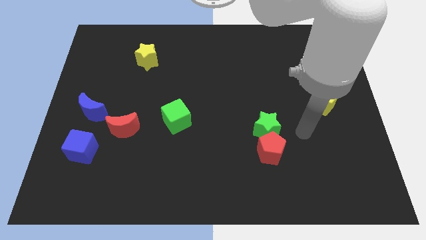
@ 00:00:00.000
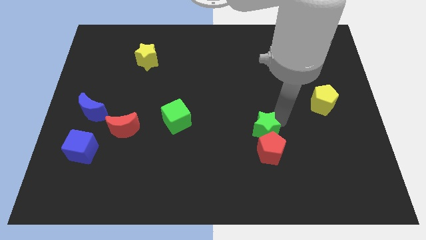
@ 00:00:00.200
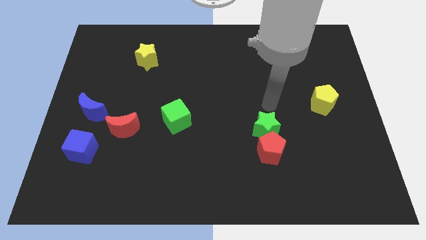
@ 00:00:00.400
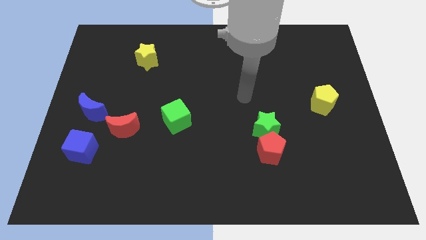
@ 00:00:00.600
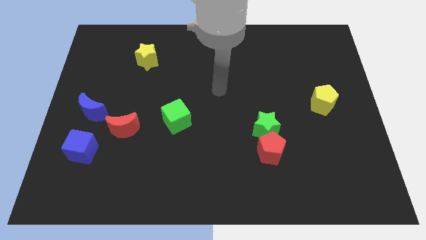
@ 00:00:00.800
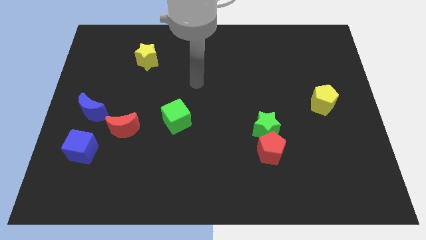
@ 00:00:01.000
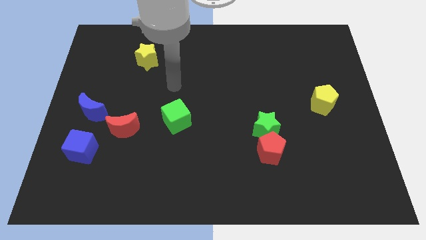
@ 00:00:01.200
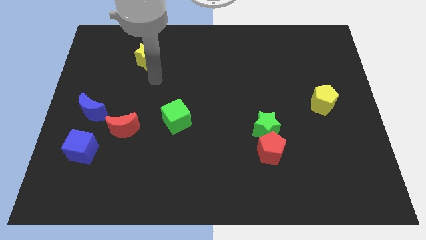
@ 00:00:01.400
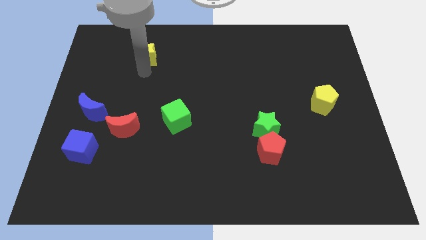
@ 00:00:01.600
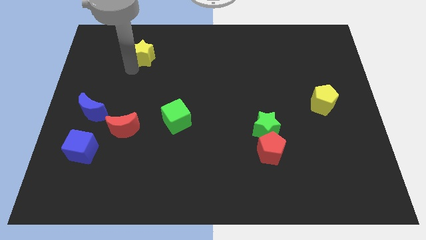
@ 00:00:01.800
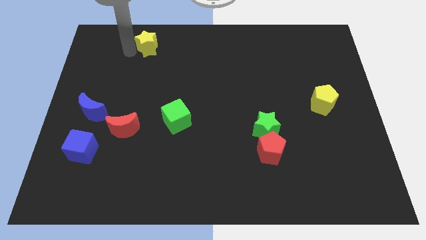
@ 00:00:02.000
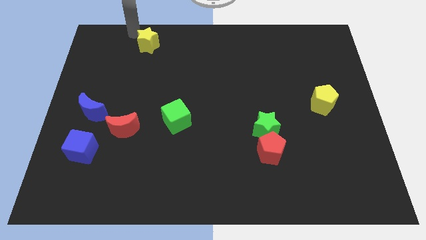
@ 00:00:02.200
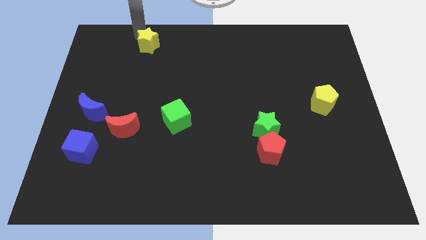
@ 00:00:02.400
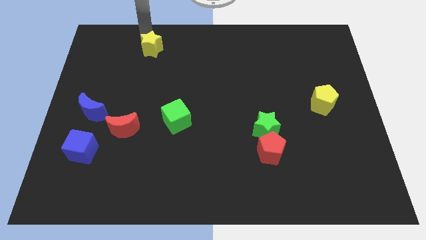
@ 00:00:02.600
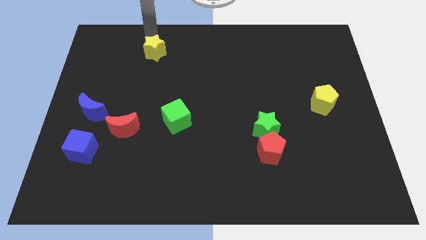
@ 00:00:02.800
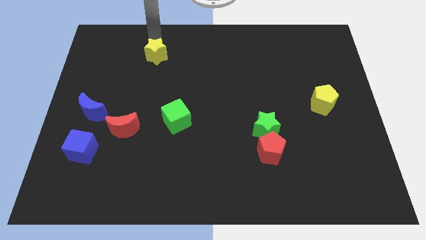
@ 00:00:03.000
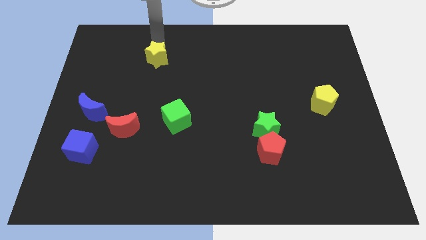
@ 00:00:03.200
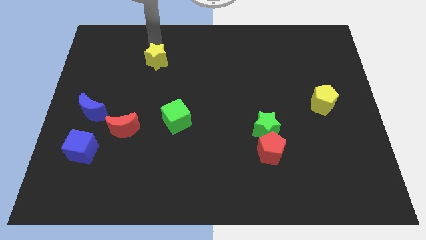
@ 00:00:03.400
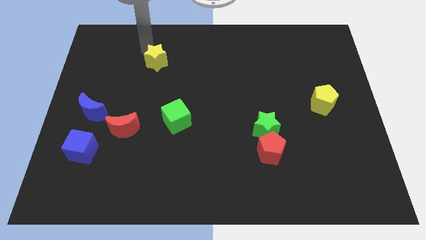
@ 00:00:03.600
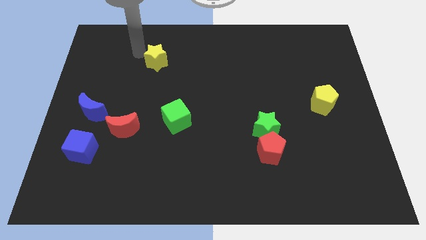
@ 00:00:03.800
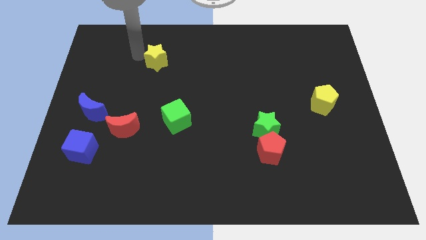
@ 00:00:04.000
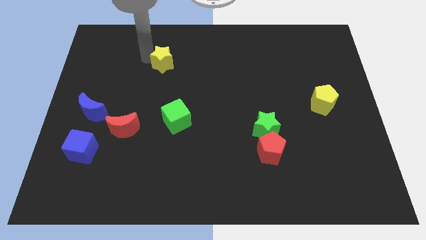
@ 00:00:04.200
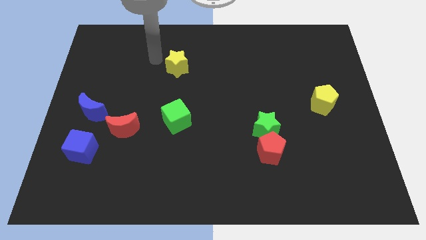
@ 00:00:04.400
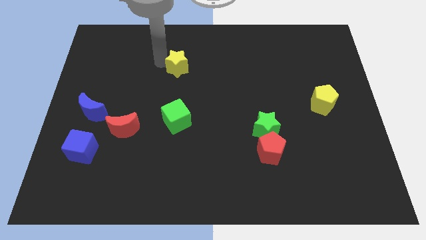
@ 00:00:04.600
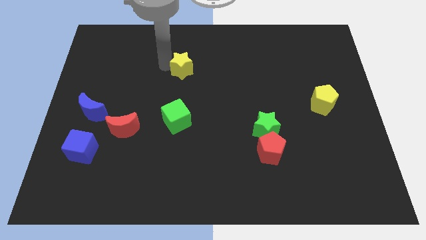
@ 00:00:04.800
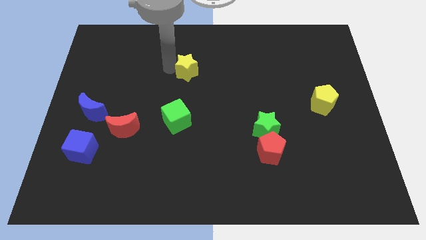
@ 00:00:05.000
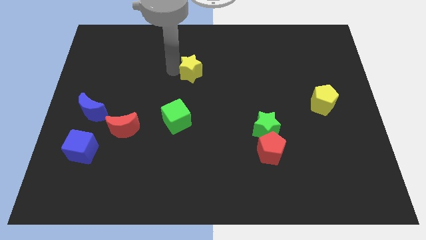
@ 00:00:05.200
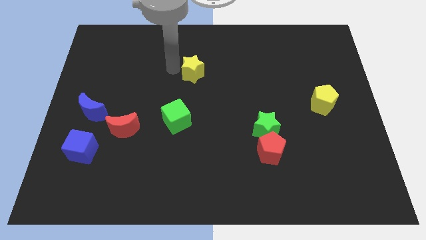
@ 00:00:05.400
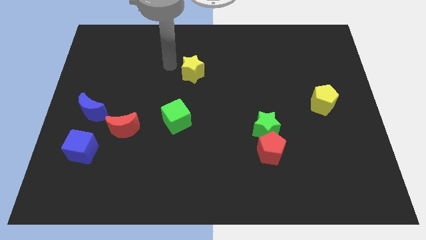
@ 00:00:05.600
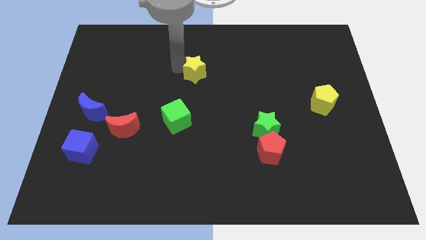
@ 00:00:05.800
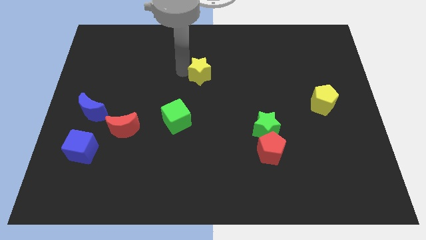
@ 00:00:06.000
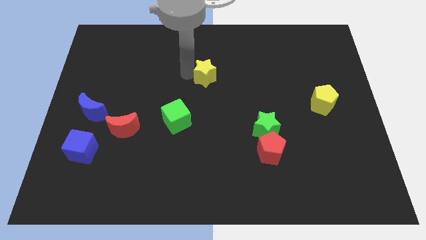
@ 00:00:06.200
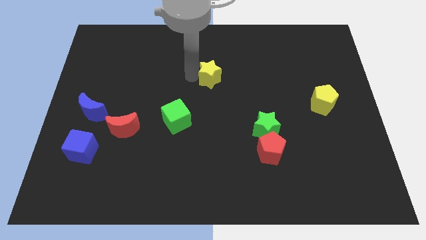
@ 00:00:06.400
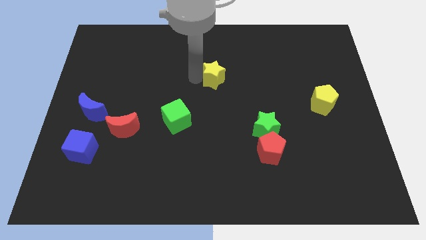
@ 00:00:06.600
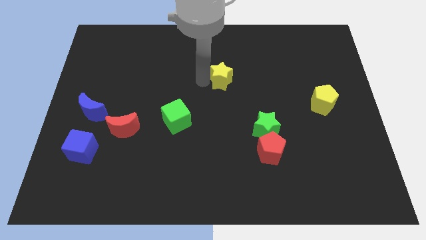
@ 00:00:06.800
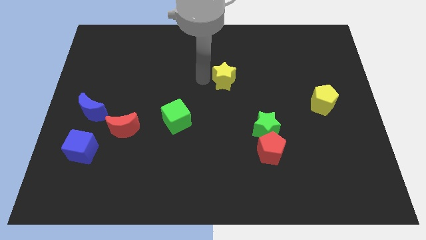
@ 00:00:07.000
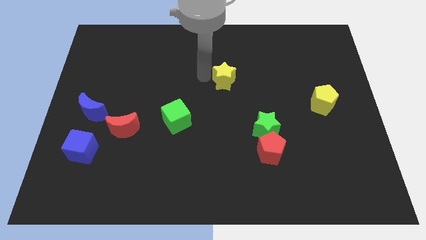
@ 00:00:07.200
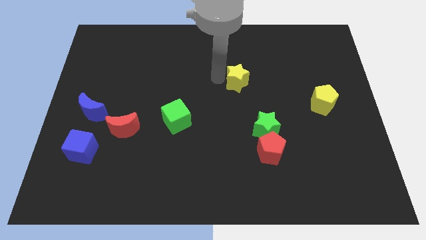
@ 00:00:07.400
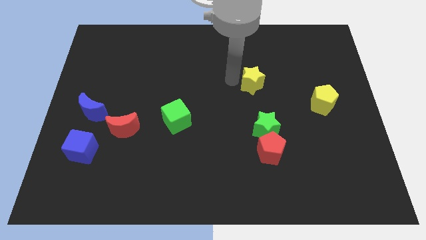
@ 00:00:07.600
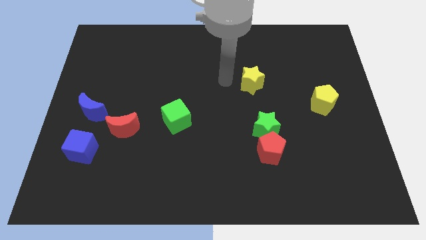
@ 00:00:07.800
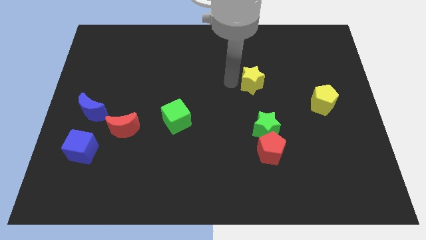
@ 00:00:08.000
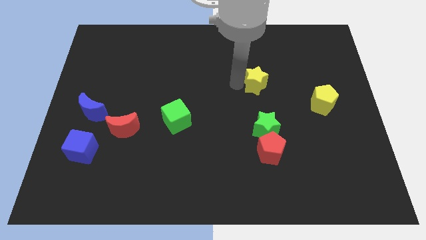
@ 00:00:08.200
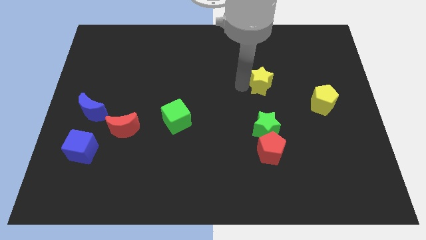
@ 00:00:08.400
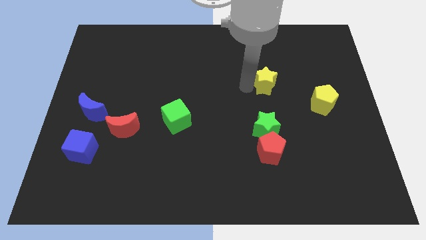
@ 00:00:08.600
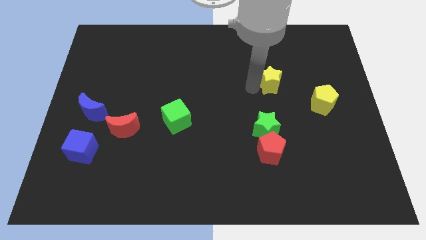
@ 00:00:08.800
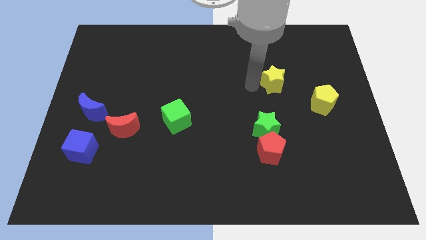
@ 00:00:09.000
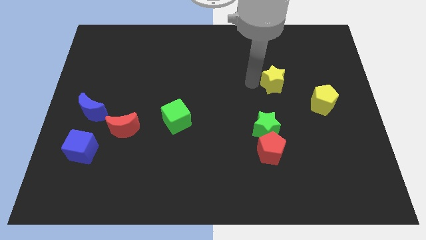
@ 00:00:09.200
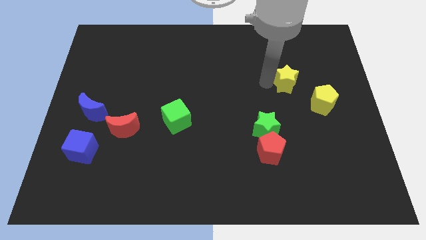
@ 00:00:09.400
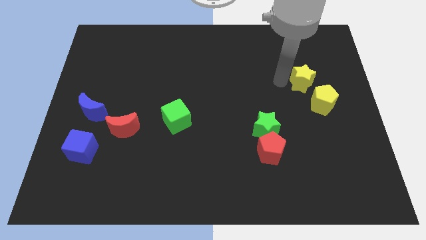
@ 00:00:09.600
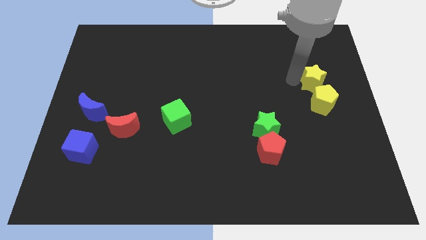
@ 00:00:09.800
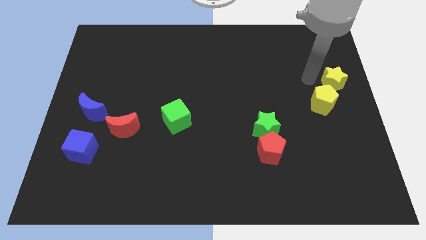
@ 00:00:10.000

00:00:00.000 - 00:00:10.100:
push the yellow star to the right side

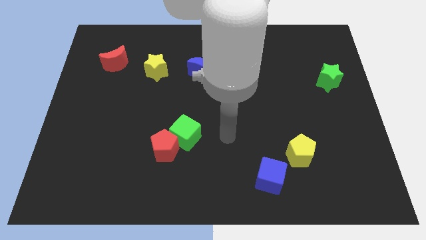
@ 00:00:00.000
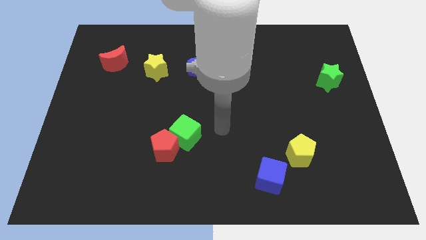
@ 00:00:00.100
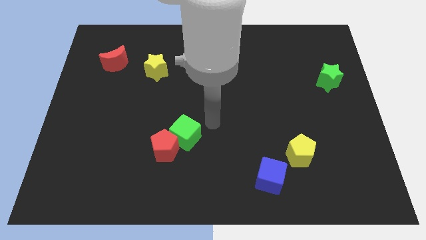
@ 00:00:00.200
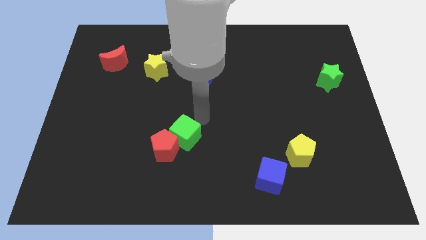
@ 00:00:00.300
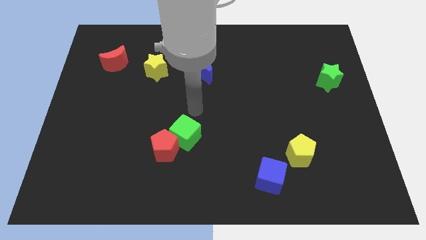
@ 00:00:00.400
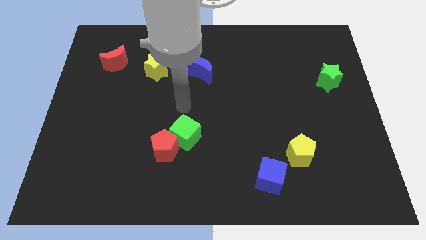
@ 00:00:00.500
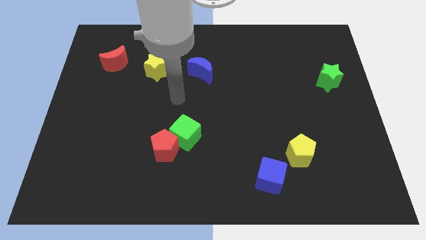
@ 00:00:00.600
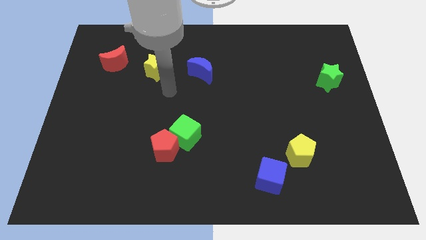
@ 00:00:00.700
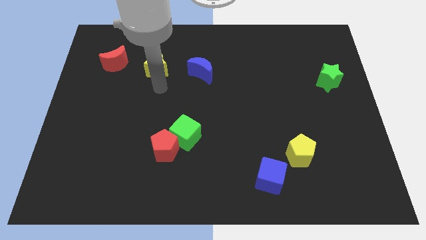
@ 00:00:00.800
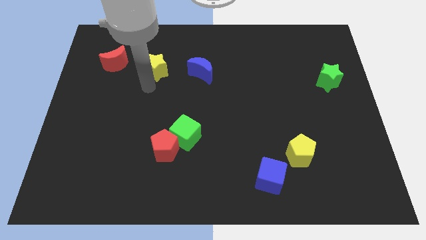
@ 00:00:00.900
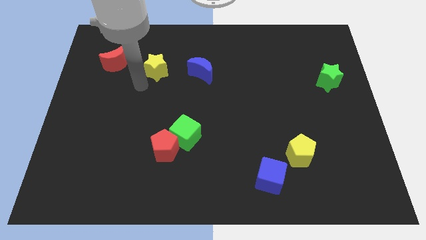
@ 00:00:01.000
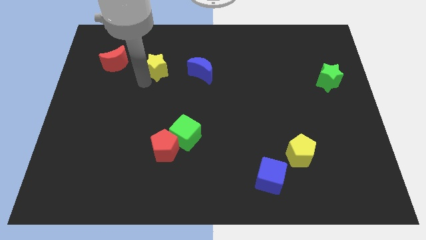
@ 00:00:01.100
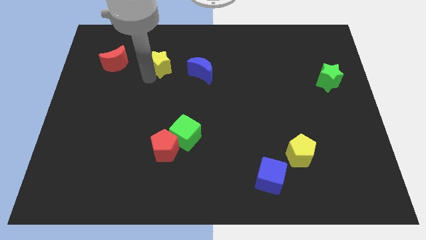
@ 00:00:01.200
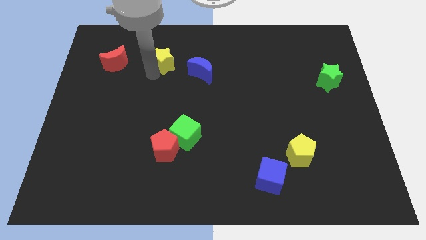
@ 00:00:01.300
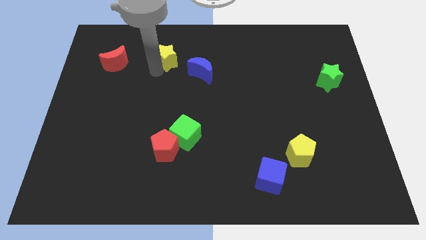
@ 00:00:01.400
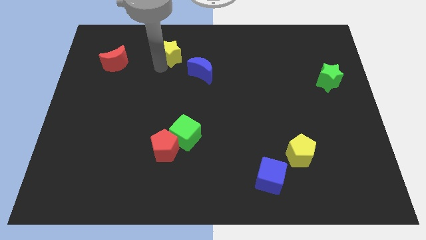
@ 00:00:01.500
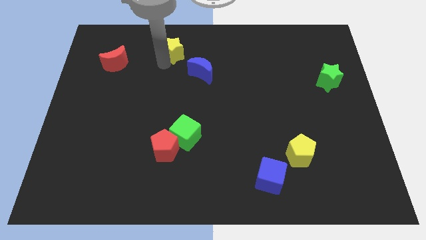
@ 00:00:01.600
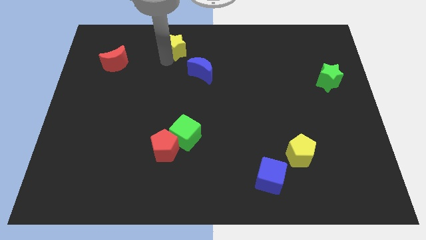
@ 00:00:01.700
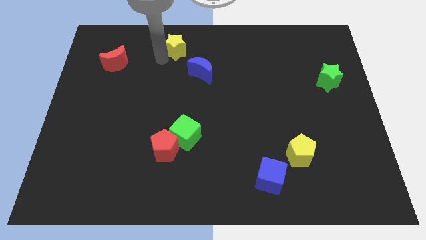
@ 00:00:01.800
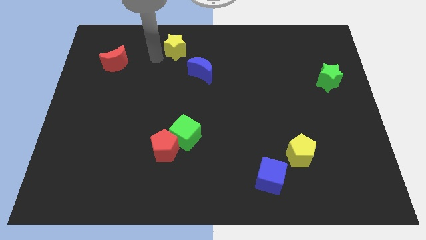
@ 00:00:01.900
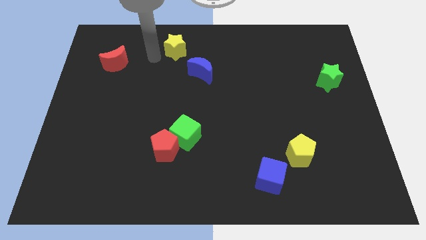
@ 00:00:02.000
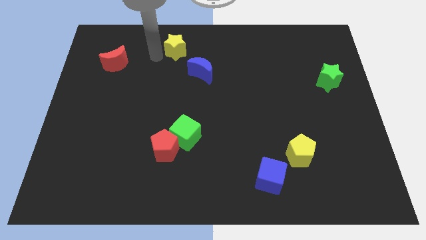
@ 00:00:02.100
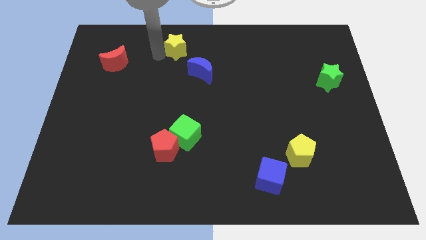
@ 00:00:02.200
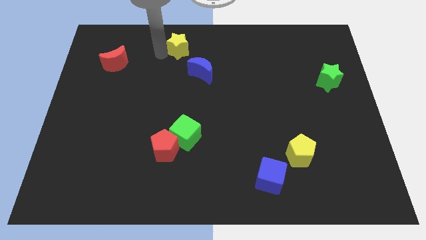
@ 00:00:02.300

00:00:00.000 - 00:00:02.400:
move the yellow star to the towards your base
